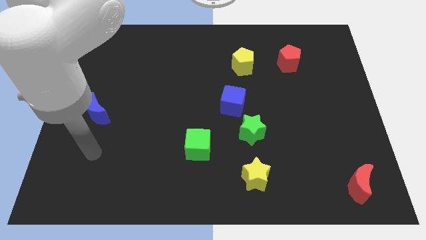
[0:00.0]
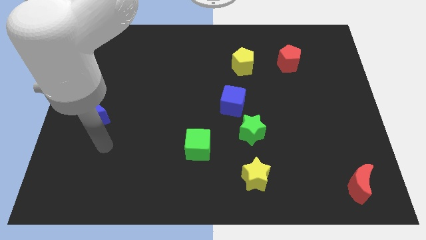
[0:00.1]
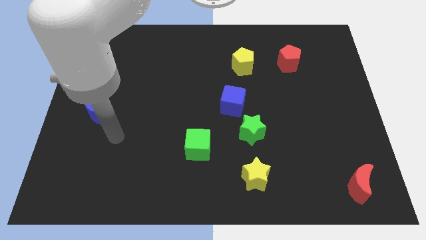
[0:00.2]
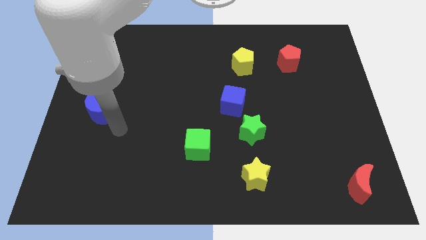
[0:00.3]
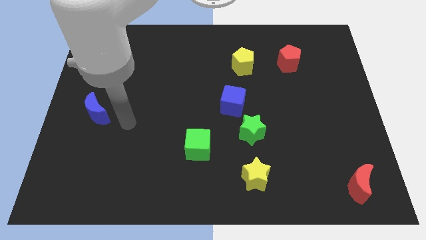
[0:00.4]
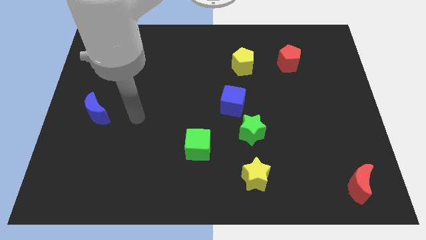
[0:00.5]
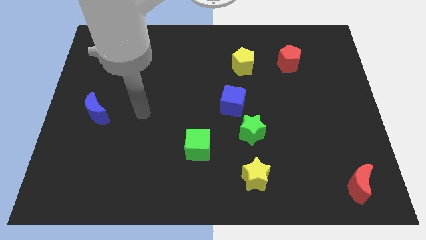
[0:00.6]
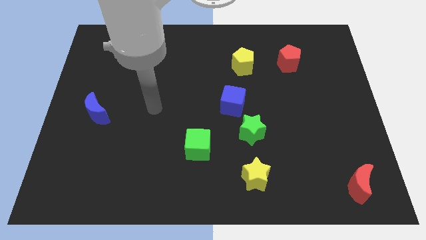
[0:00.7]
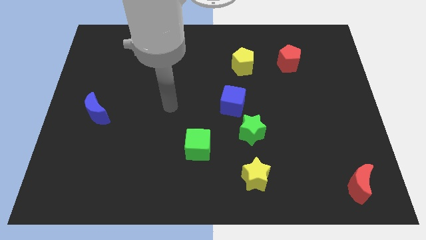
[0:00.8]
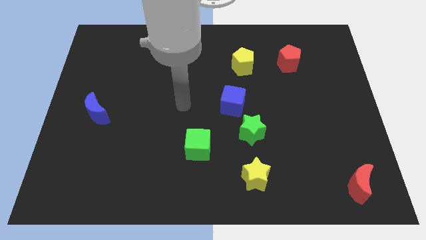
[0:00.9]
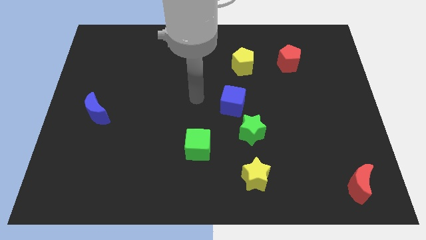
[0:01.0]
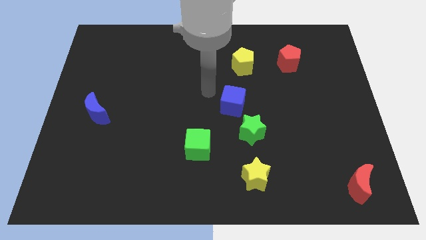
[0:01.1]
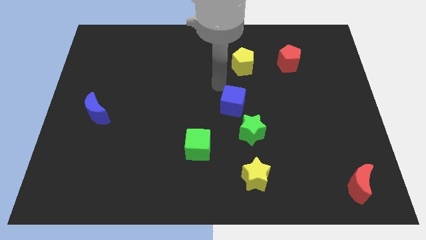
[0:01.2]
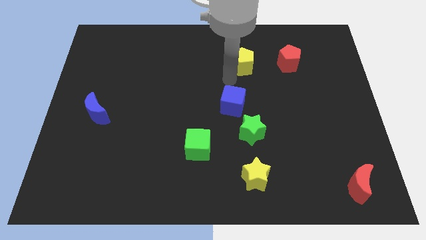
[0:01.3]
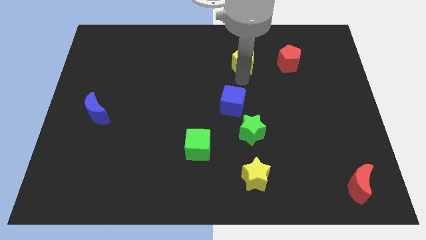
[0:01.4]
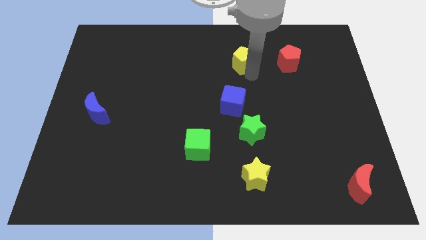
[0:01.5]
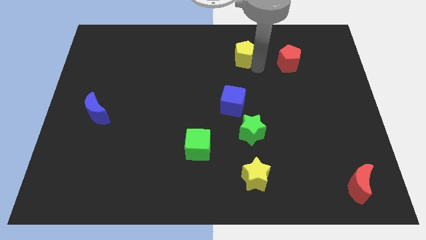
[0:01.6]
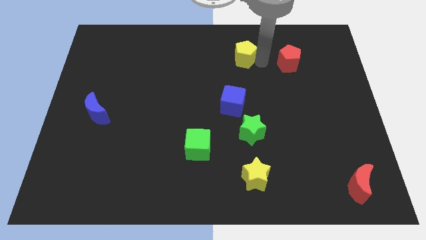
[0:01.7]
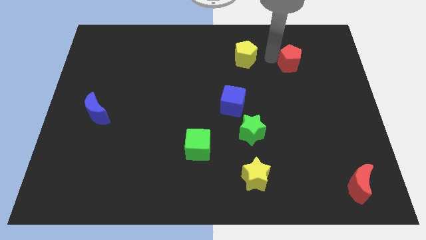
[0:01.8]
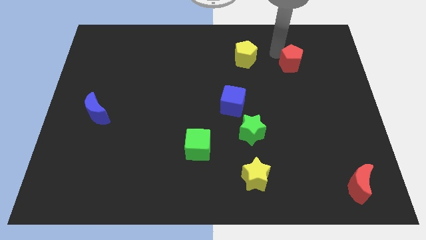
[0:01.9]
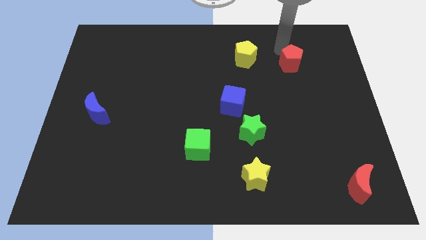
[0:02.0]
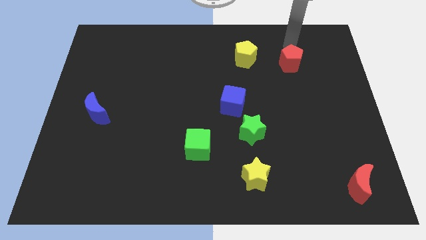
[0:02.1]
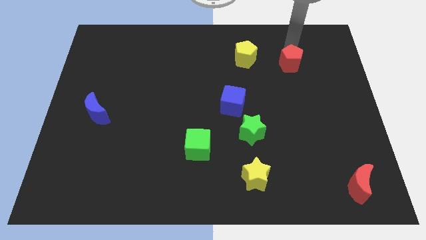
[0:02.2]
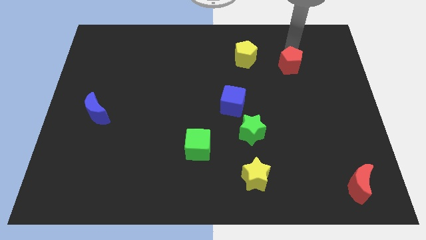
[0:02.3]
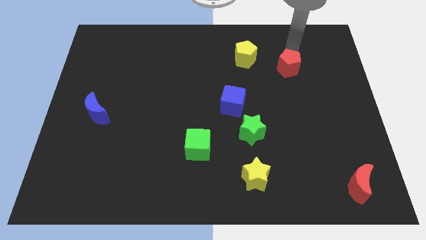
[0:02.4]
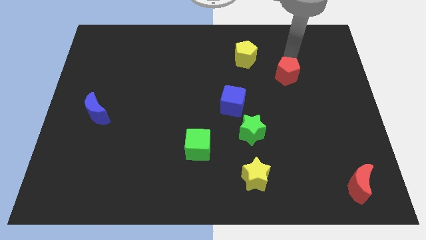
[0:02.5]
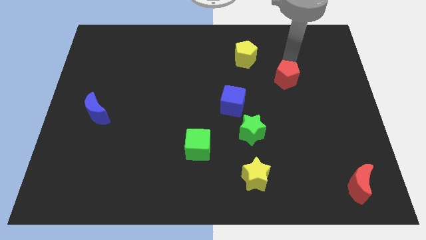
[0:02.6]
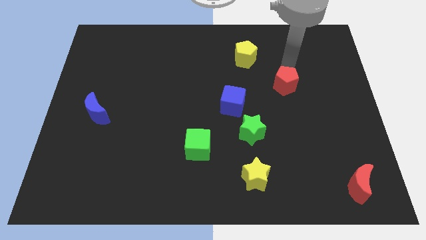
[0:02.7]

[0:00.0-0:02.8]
move the red pentagon down a bit

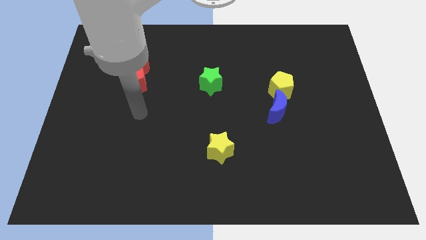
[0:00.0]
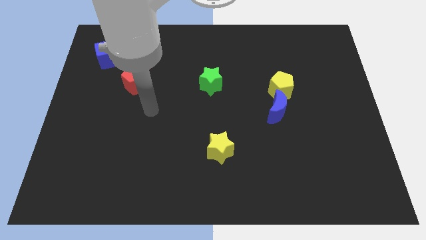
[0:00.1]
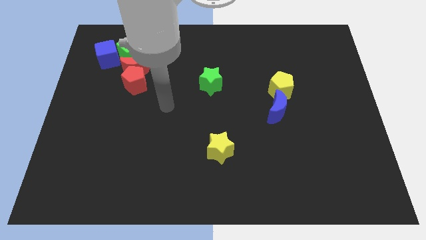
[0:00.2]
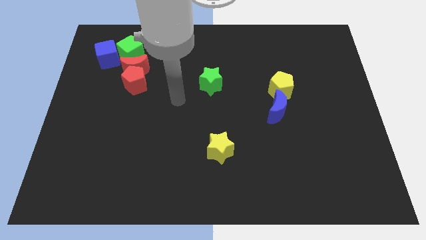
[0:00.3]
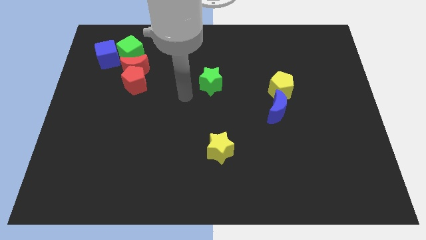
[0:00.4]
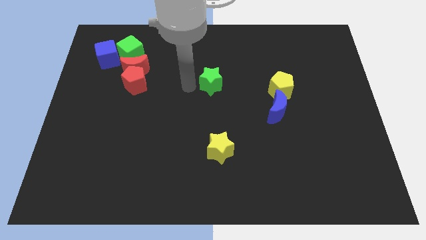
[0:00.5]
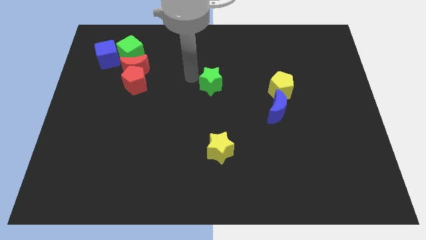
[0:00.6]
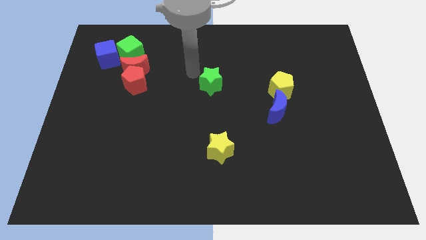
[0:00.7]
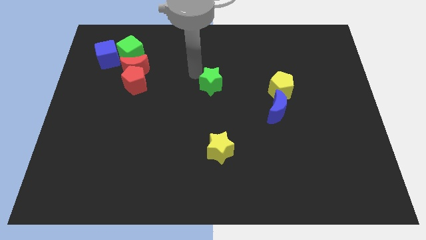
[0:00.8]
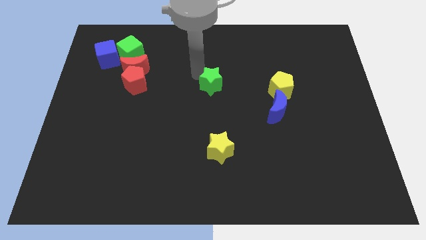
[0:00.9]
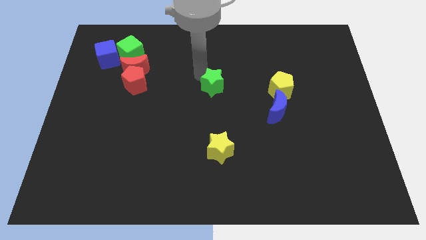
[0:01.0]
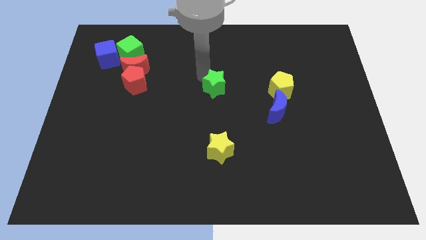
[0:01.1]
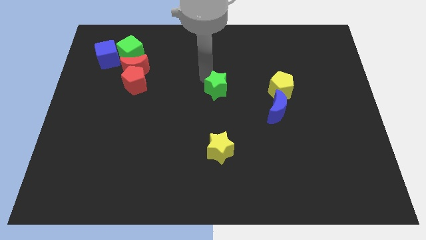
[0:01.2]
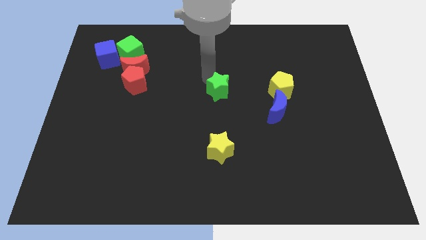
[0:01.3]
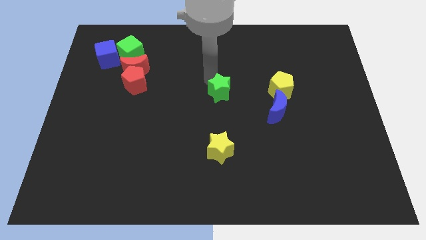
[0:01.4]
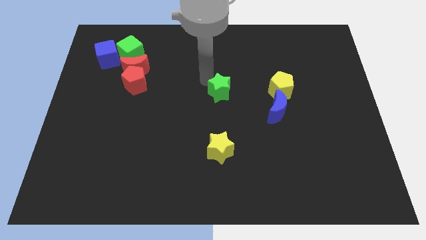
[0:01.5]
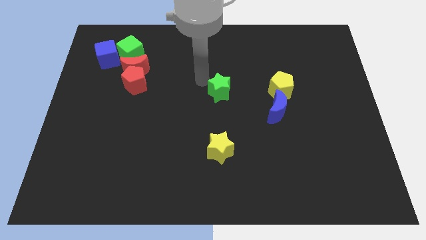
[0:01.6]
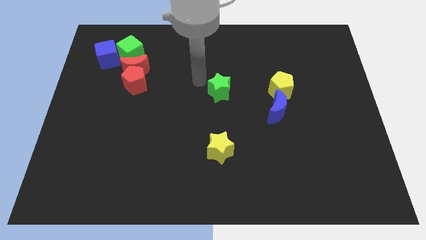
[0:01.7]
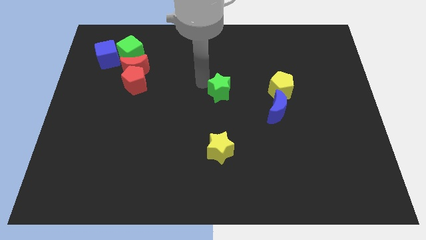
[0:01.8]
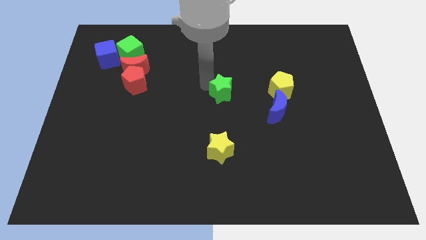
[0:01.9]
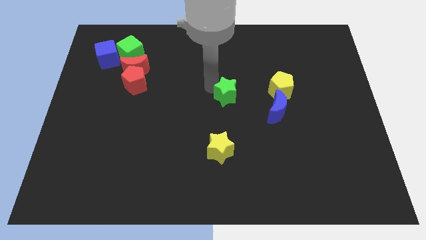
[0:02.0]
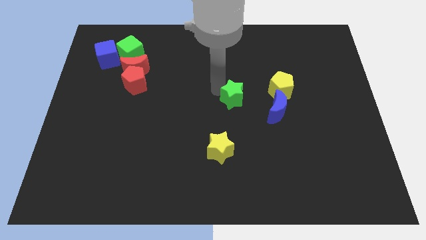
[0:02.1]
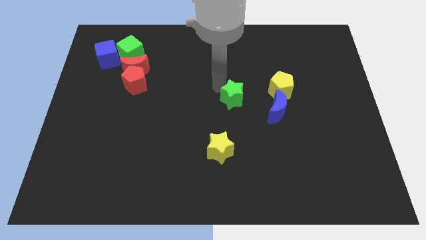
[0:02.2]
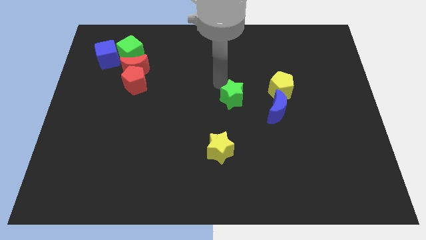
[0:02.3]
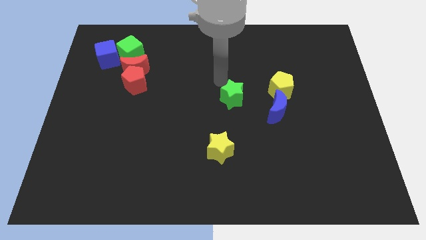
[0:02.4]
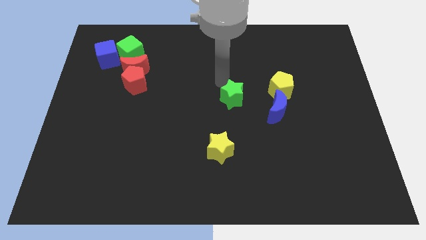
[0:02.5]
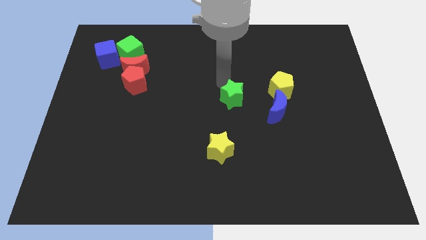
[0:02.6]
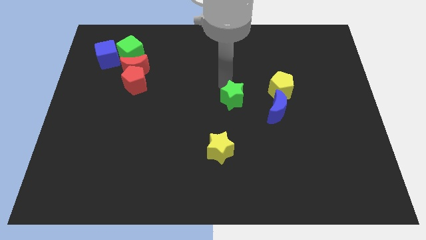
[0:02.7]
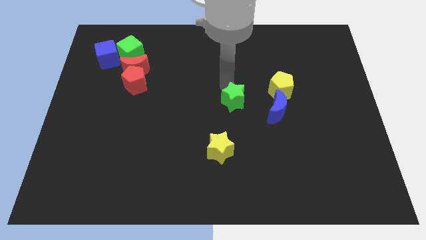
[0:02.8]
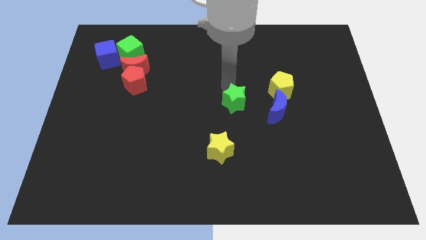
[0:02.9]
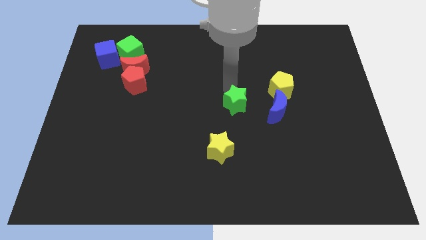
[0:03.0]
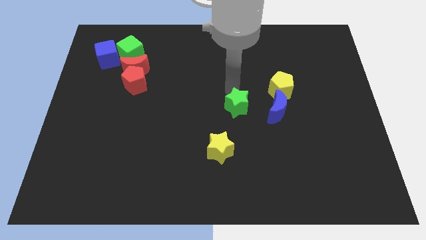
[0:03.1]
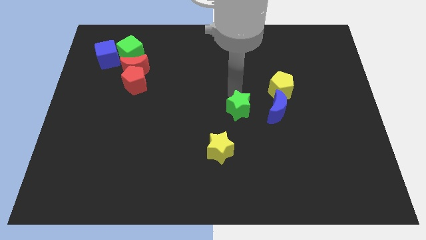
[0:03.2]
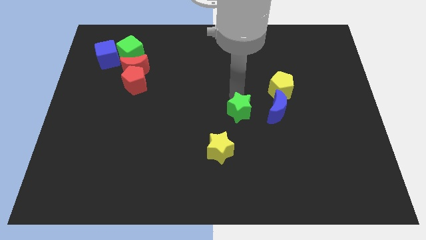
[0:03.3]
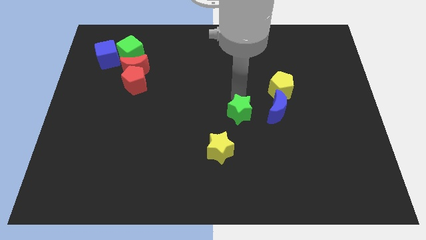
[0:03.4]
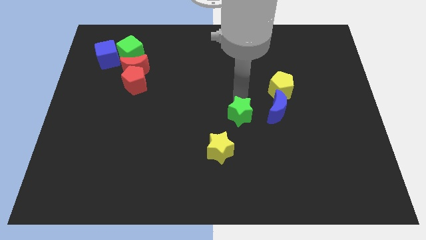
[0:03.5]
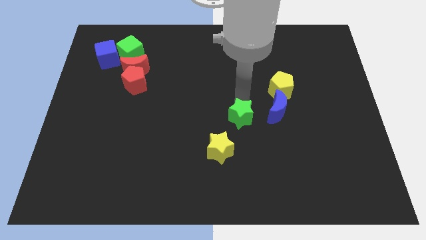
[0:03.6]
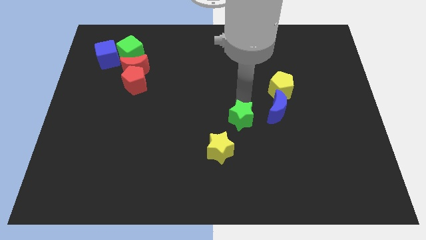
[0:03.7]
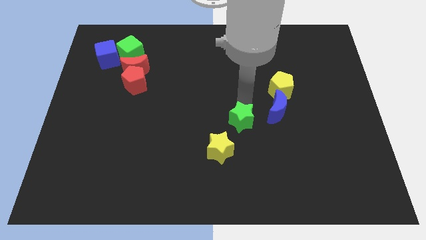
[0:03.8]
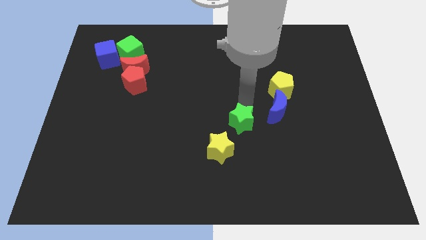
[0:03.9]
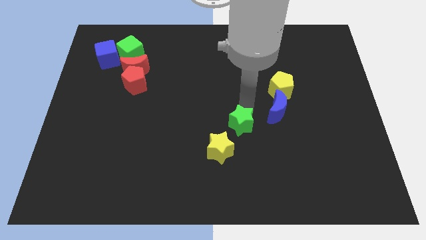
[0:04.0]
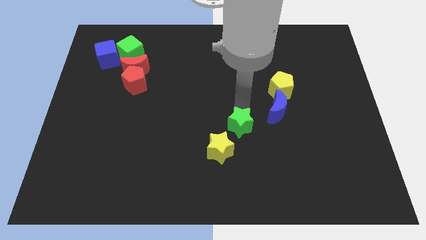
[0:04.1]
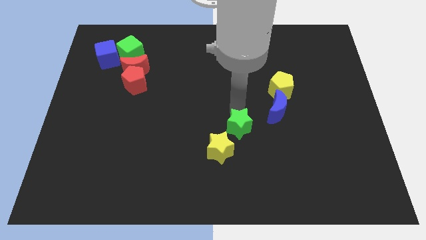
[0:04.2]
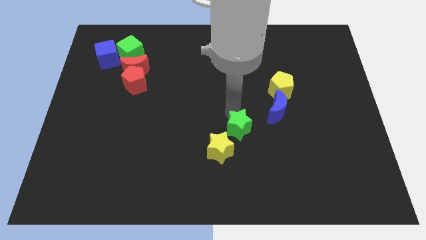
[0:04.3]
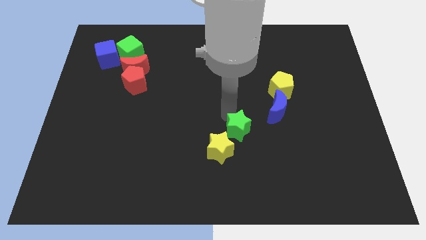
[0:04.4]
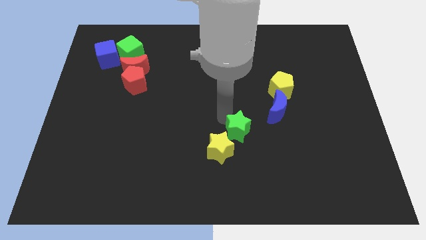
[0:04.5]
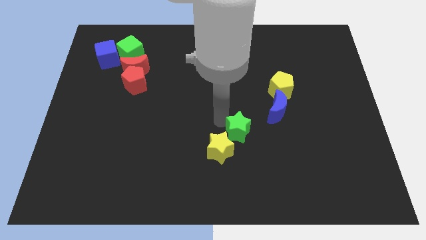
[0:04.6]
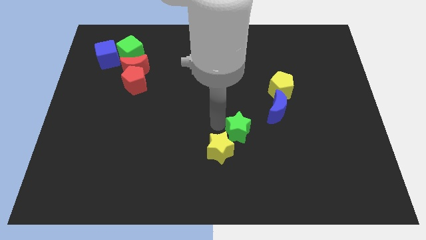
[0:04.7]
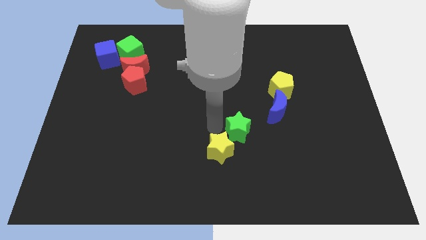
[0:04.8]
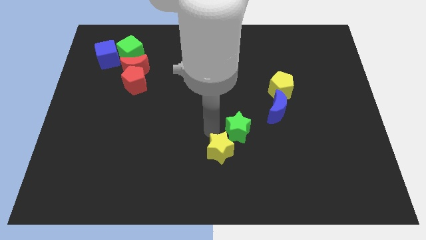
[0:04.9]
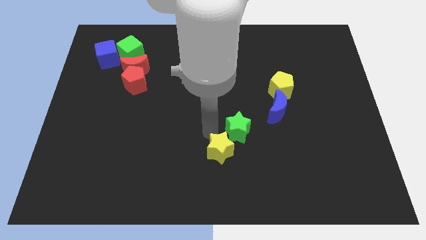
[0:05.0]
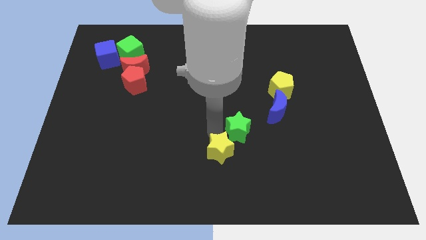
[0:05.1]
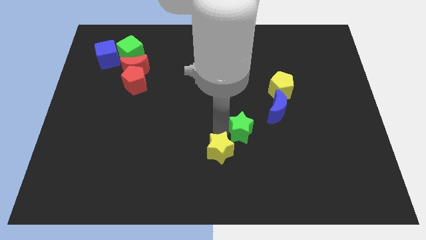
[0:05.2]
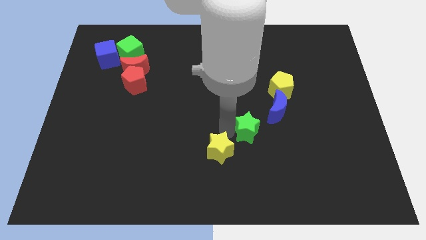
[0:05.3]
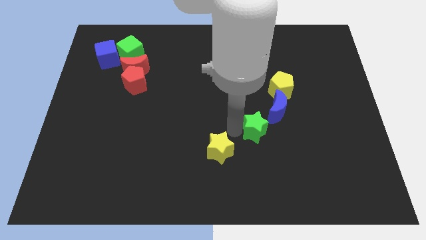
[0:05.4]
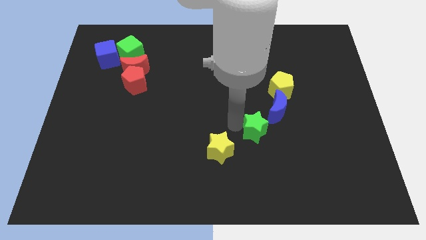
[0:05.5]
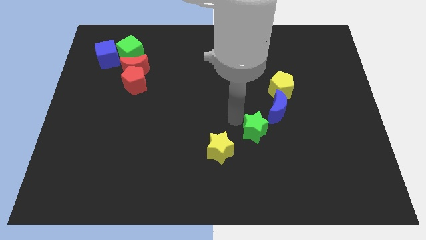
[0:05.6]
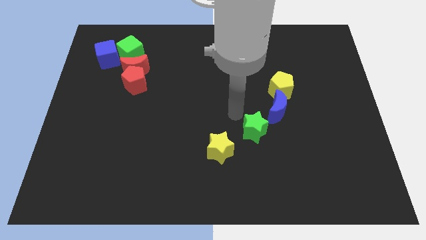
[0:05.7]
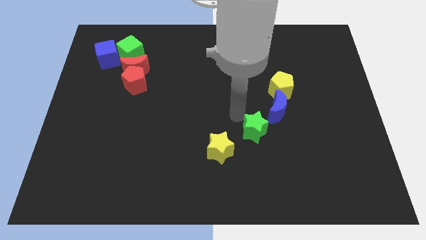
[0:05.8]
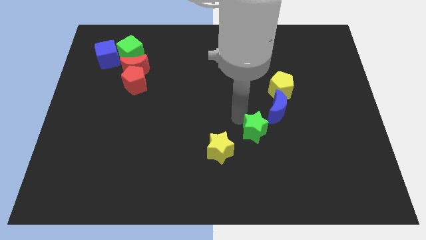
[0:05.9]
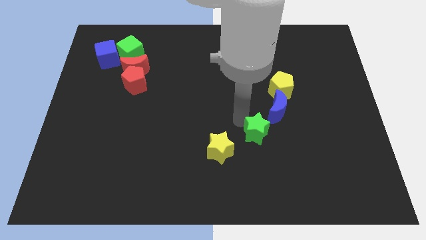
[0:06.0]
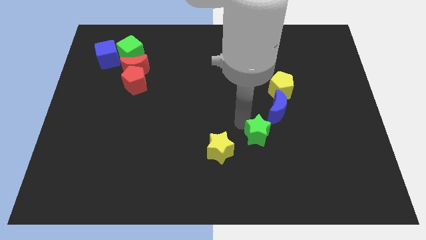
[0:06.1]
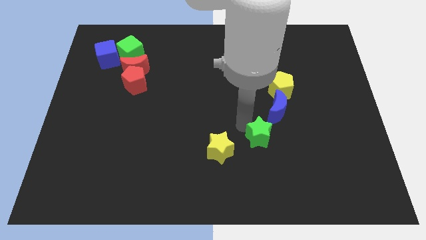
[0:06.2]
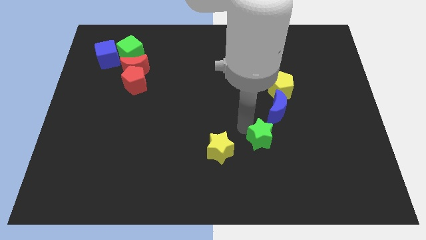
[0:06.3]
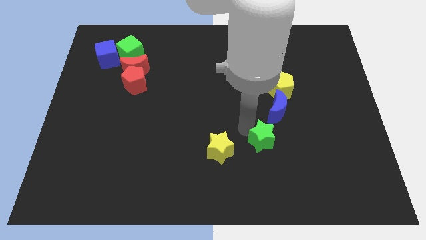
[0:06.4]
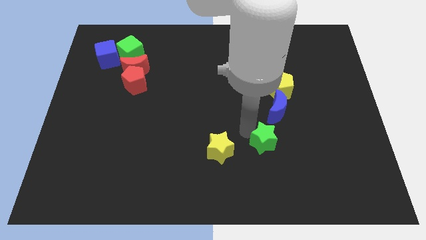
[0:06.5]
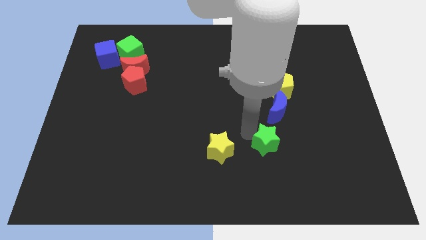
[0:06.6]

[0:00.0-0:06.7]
push the green star downwards and right diagonally
